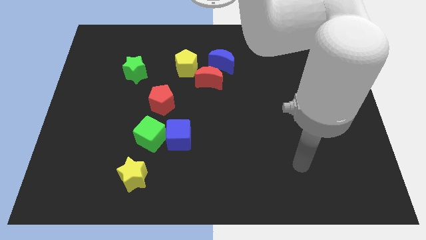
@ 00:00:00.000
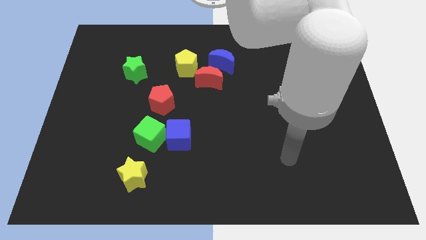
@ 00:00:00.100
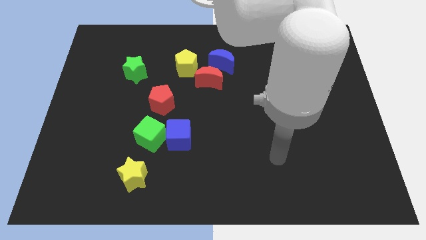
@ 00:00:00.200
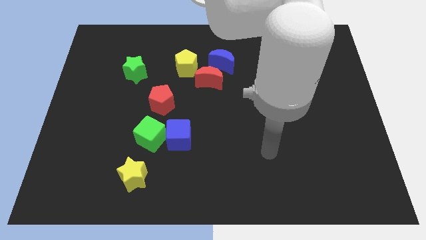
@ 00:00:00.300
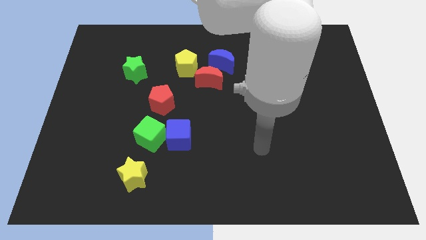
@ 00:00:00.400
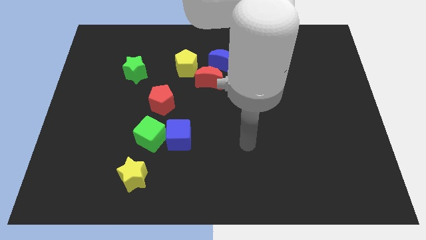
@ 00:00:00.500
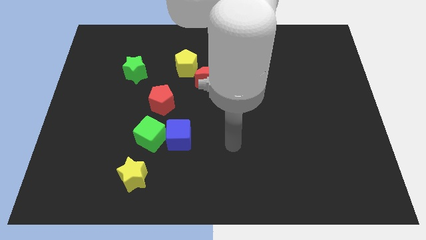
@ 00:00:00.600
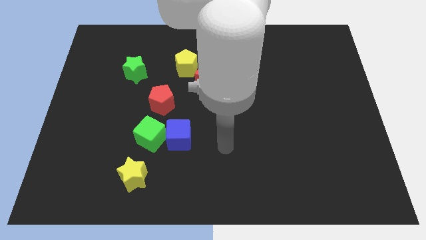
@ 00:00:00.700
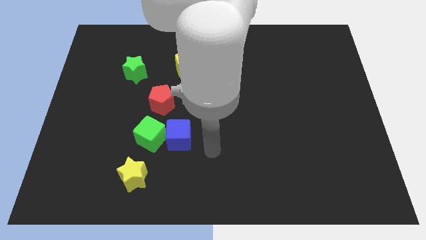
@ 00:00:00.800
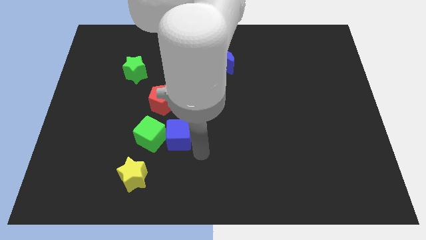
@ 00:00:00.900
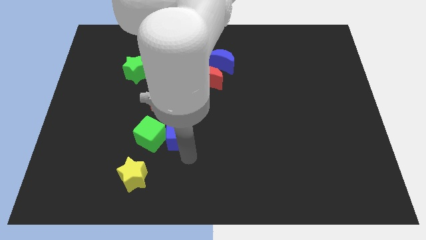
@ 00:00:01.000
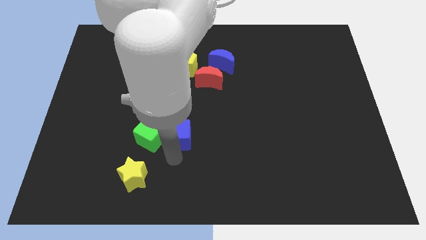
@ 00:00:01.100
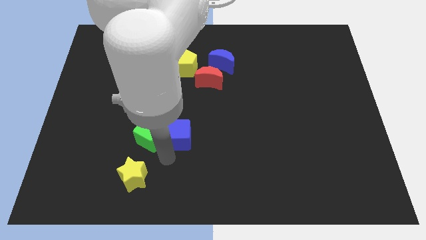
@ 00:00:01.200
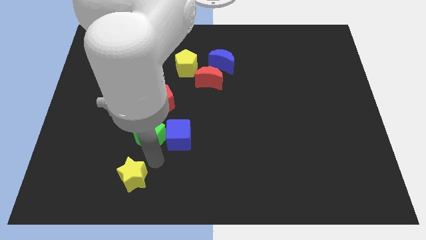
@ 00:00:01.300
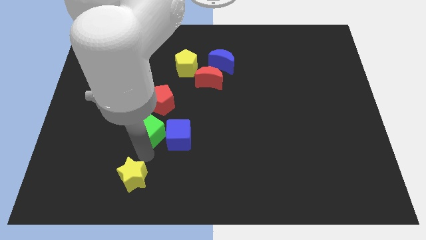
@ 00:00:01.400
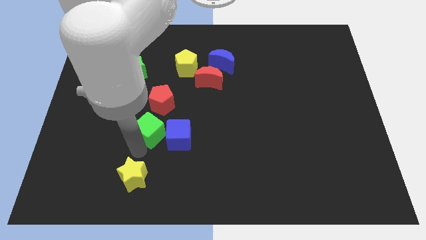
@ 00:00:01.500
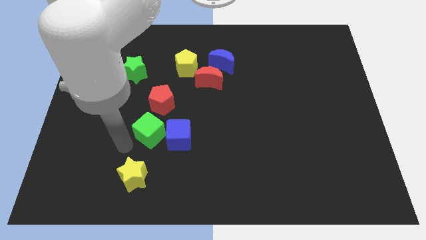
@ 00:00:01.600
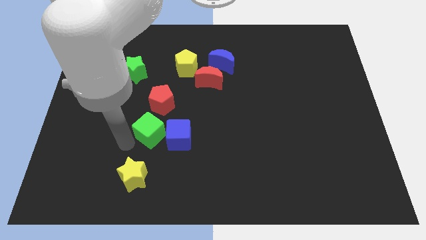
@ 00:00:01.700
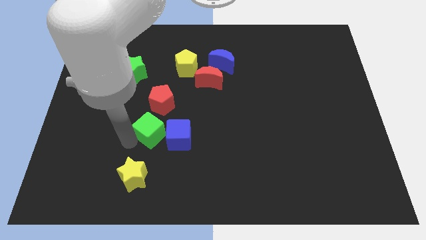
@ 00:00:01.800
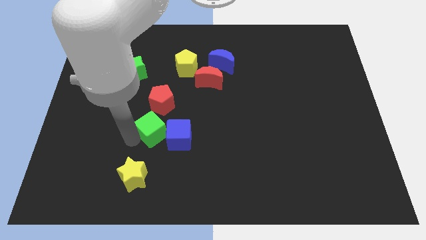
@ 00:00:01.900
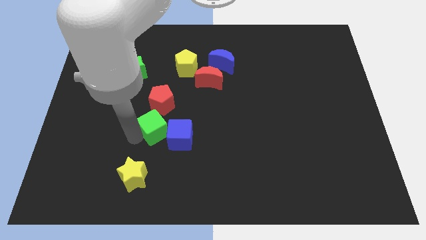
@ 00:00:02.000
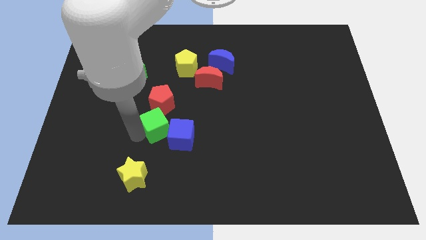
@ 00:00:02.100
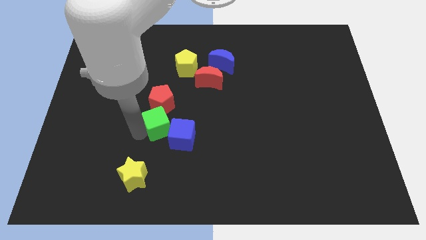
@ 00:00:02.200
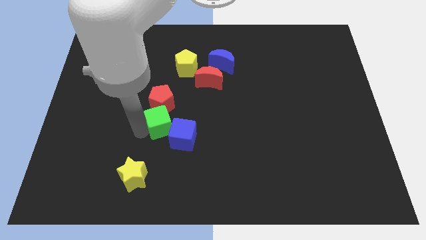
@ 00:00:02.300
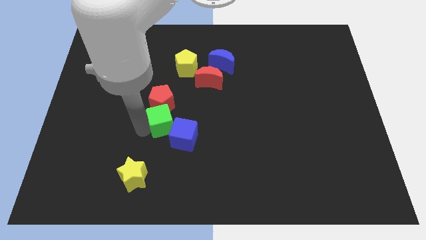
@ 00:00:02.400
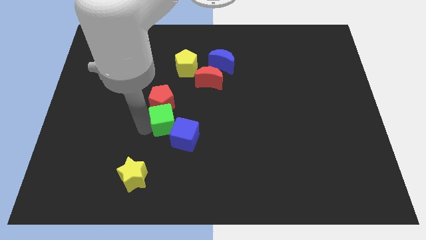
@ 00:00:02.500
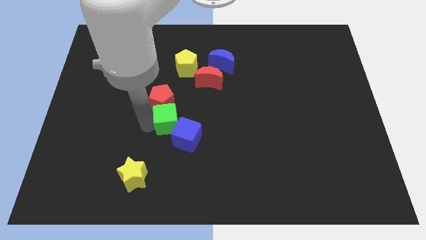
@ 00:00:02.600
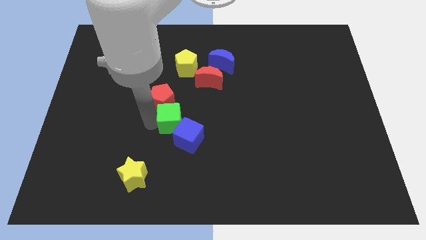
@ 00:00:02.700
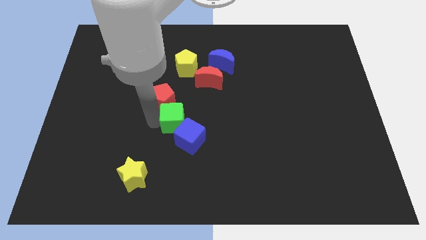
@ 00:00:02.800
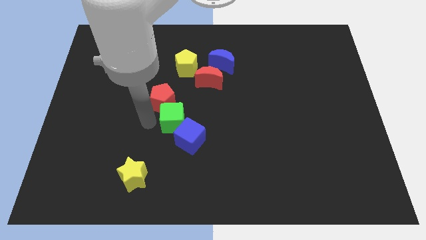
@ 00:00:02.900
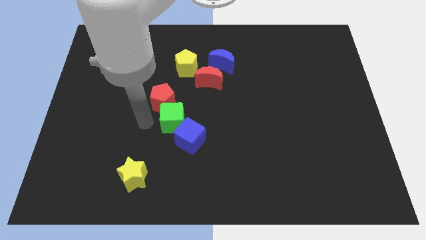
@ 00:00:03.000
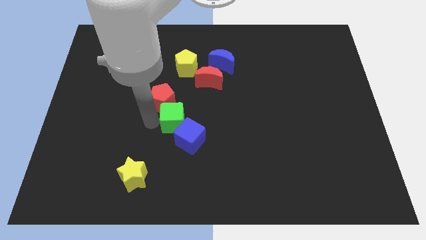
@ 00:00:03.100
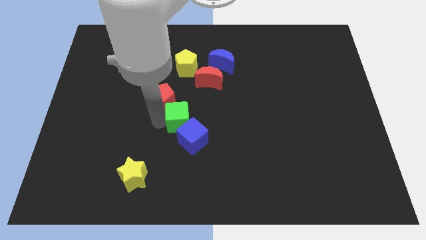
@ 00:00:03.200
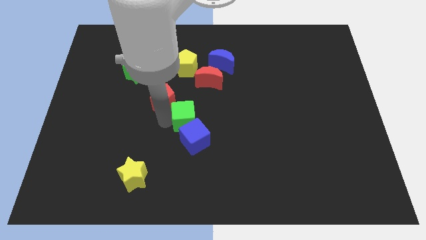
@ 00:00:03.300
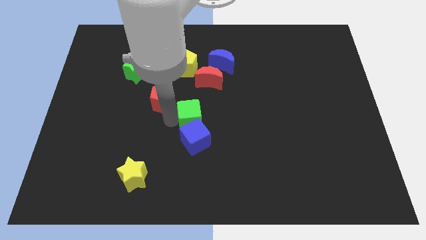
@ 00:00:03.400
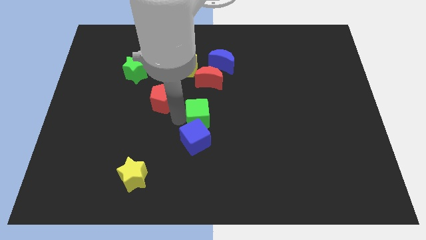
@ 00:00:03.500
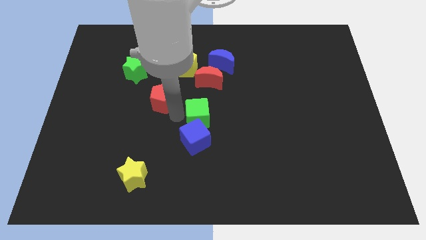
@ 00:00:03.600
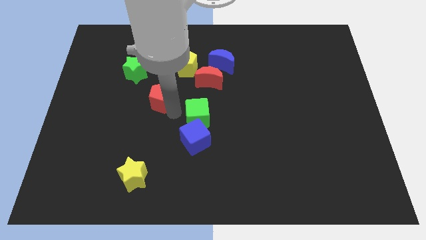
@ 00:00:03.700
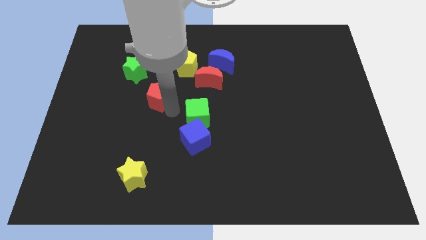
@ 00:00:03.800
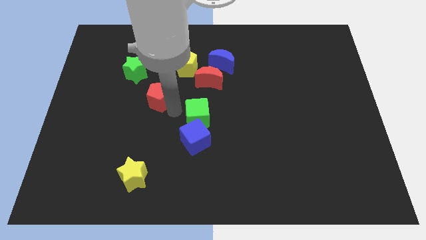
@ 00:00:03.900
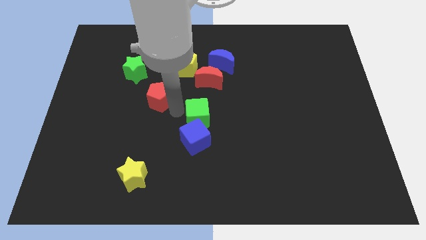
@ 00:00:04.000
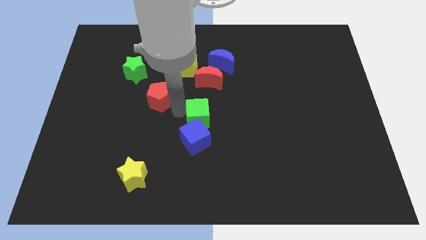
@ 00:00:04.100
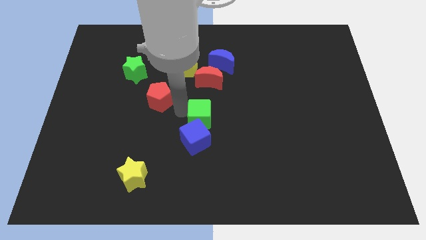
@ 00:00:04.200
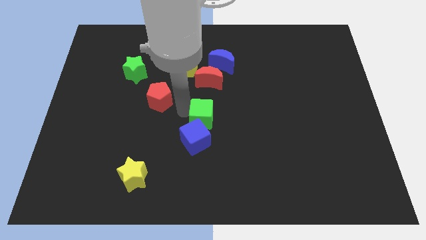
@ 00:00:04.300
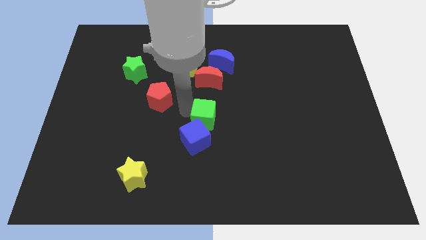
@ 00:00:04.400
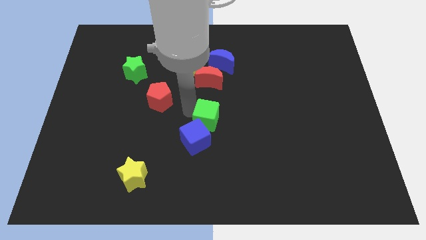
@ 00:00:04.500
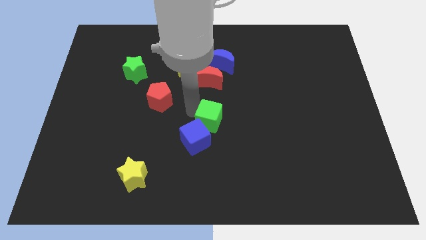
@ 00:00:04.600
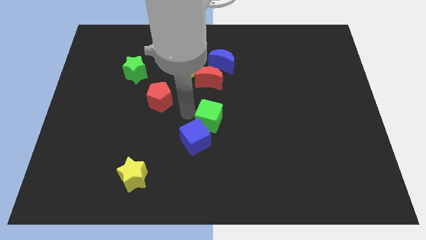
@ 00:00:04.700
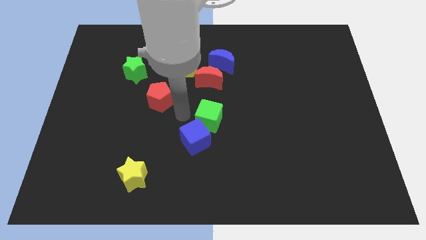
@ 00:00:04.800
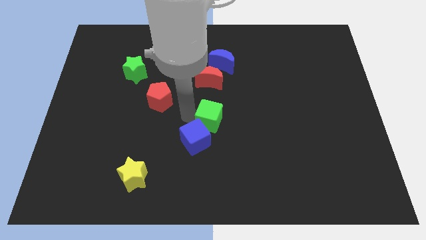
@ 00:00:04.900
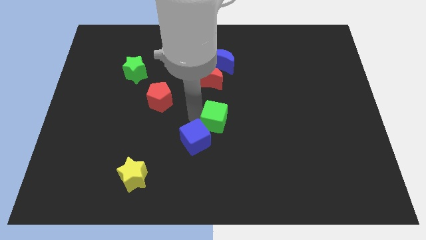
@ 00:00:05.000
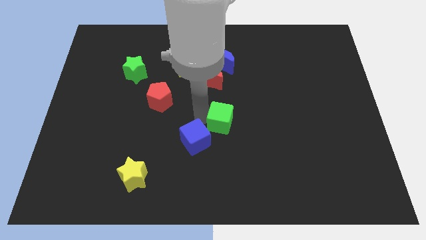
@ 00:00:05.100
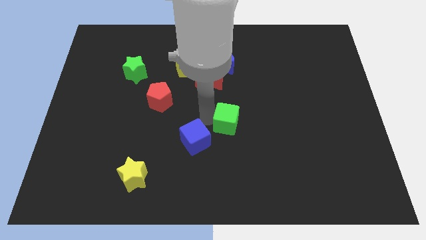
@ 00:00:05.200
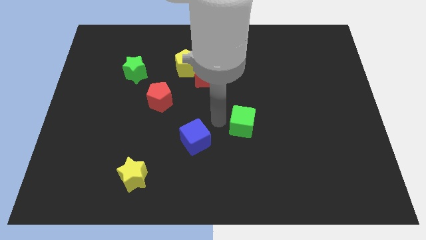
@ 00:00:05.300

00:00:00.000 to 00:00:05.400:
move the green cube right

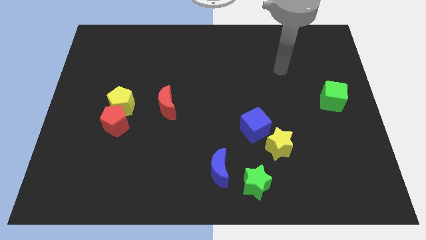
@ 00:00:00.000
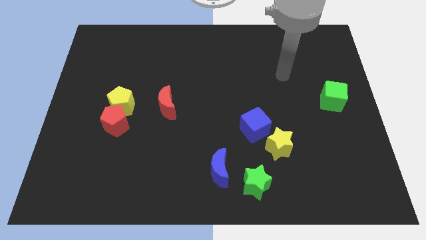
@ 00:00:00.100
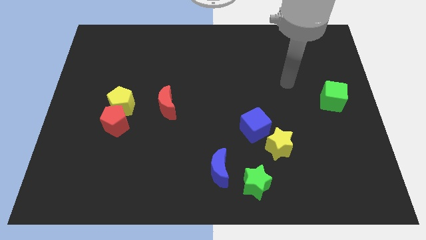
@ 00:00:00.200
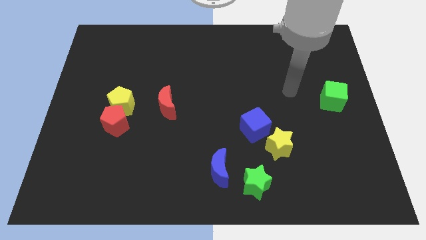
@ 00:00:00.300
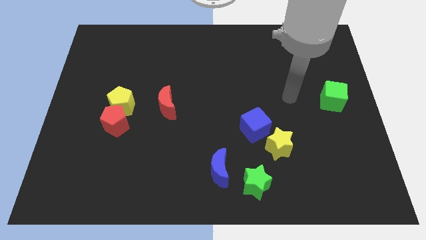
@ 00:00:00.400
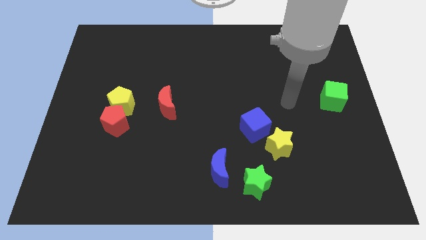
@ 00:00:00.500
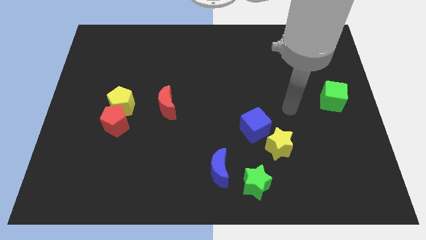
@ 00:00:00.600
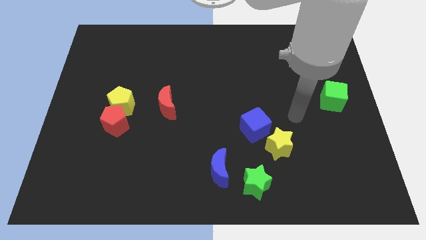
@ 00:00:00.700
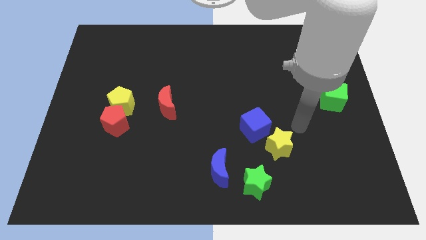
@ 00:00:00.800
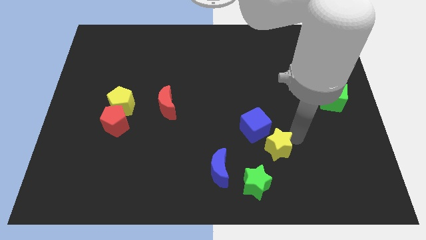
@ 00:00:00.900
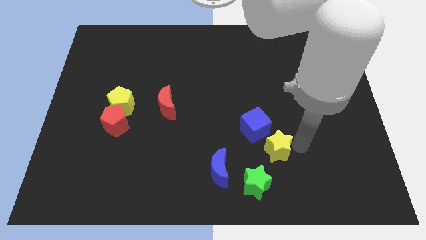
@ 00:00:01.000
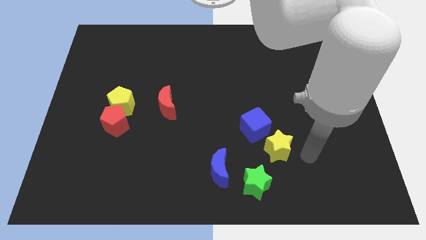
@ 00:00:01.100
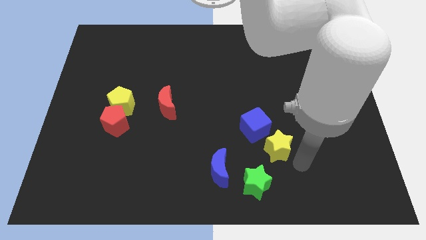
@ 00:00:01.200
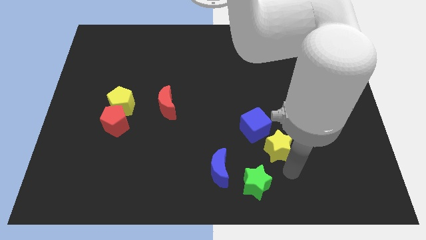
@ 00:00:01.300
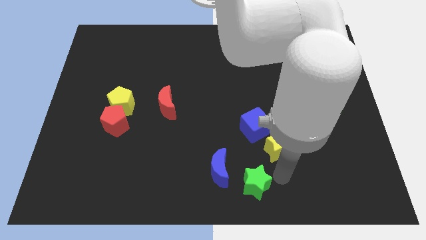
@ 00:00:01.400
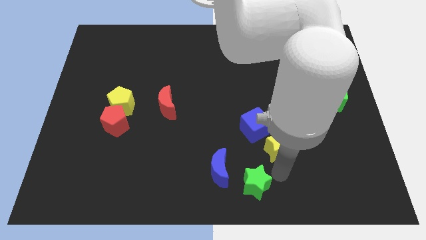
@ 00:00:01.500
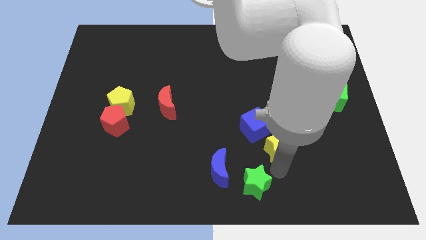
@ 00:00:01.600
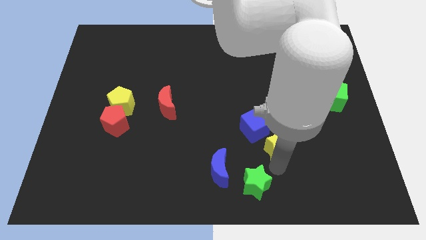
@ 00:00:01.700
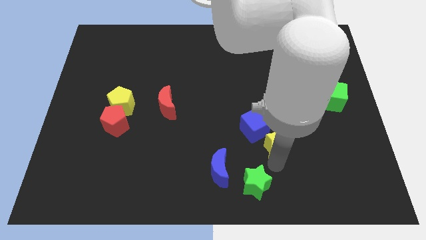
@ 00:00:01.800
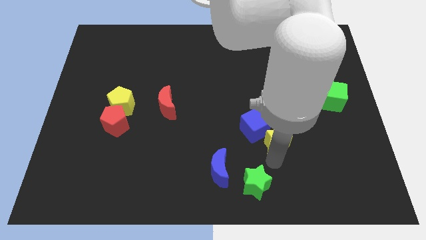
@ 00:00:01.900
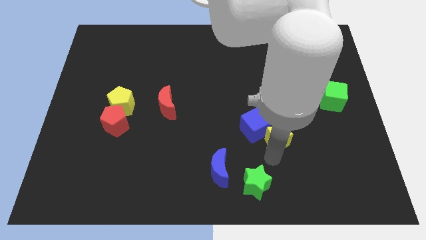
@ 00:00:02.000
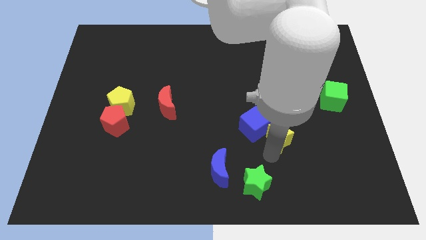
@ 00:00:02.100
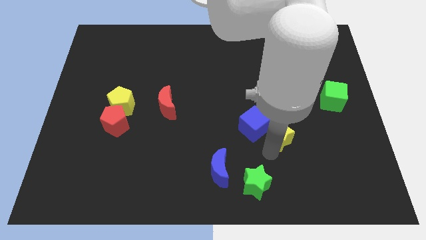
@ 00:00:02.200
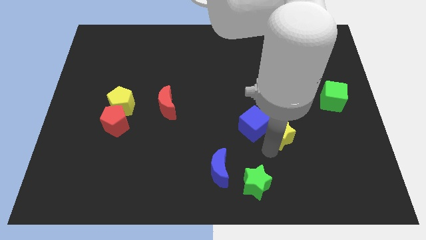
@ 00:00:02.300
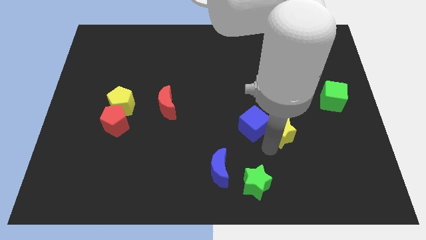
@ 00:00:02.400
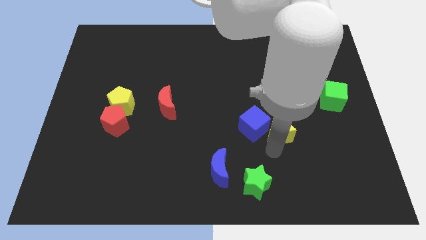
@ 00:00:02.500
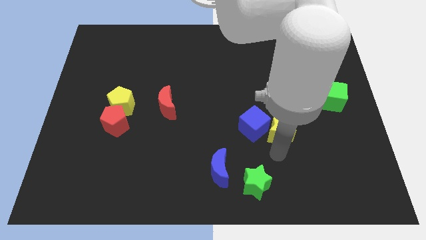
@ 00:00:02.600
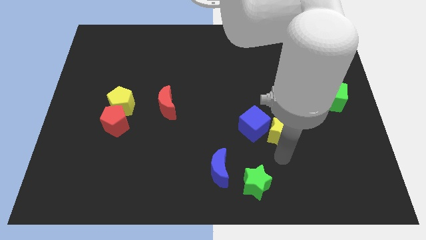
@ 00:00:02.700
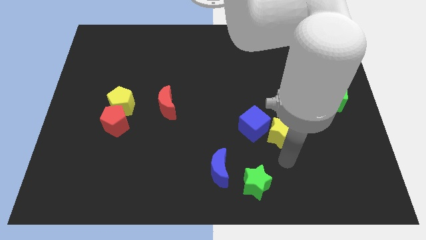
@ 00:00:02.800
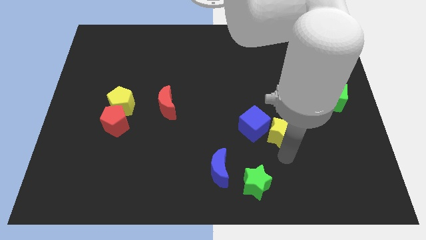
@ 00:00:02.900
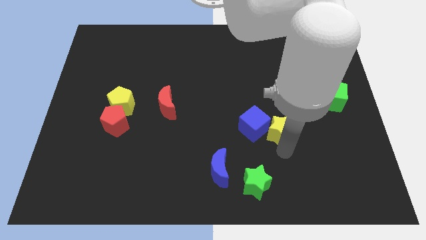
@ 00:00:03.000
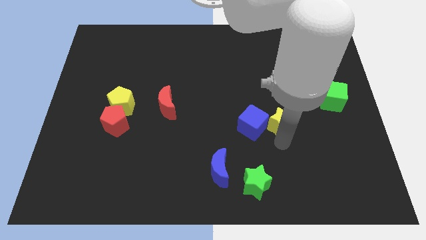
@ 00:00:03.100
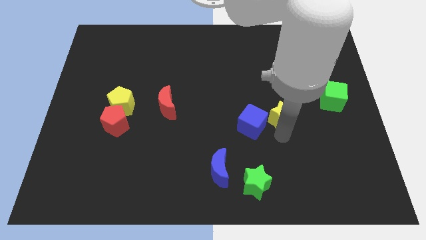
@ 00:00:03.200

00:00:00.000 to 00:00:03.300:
slide the yellow star a little up
